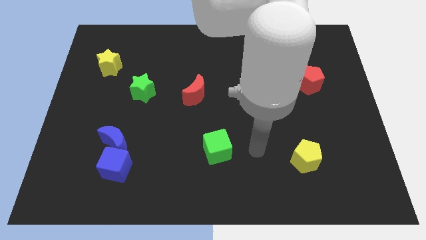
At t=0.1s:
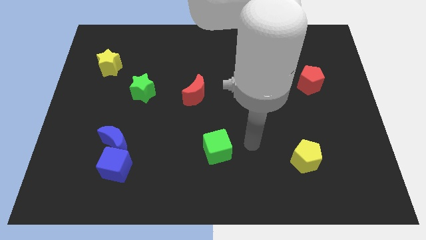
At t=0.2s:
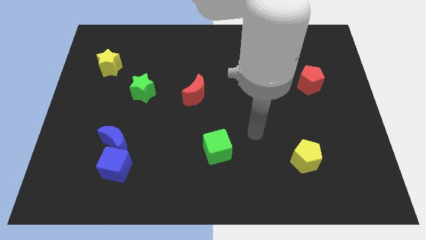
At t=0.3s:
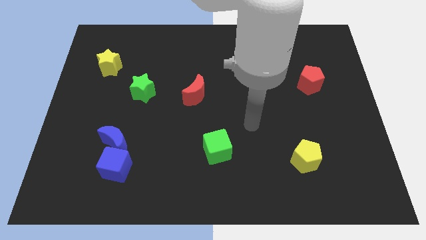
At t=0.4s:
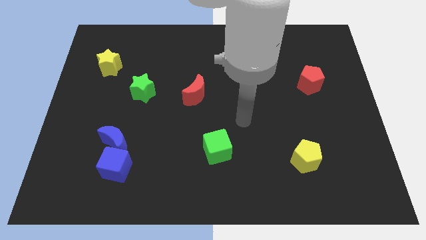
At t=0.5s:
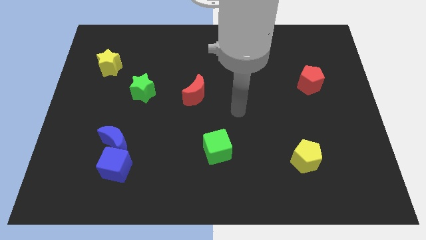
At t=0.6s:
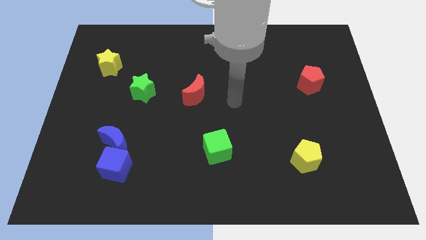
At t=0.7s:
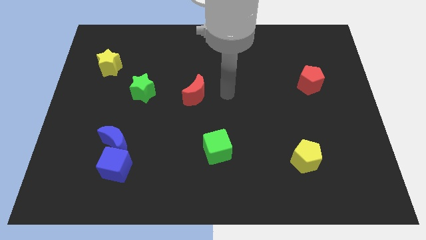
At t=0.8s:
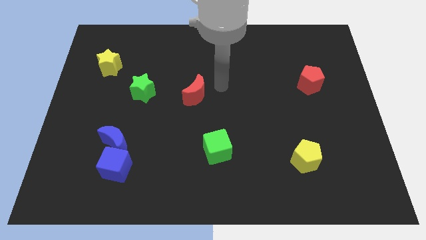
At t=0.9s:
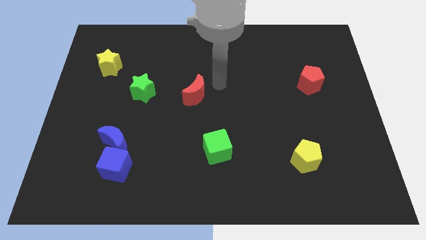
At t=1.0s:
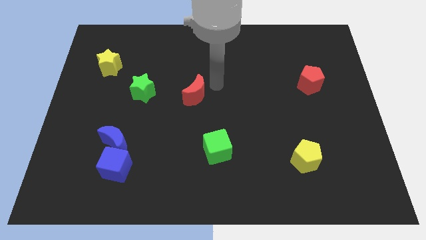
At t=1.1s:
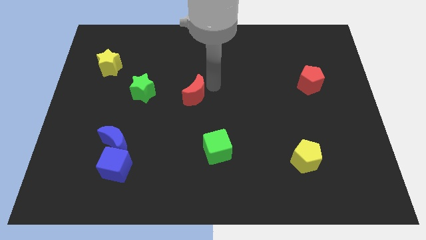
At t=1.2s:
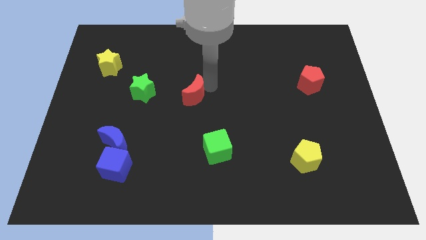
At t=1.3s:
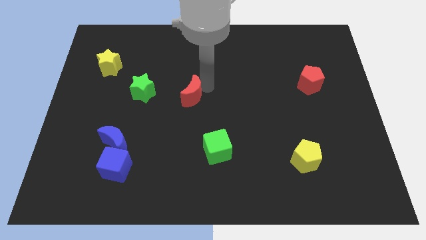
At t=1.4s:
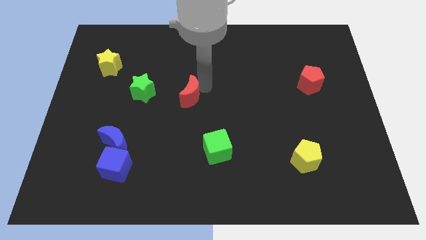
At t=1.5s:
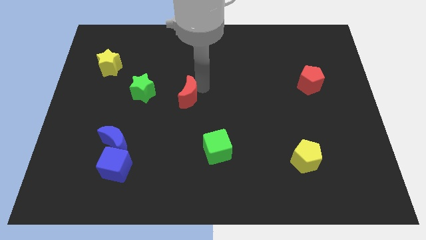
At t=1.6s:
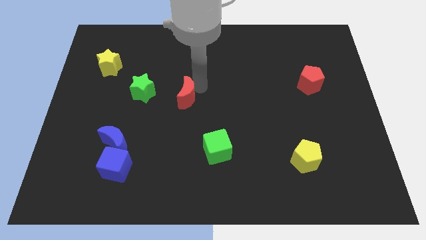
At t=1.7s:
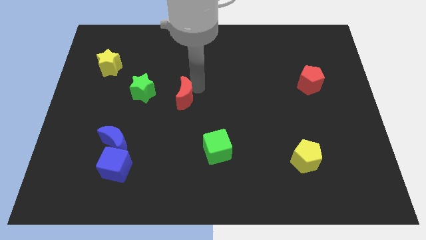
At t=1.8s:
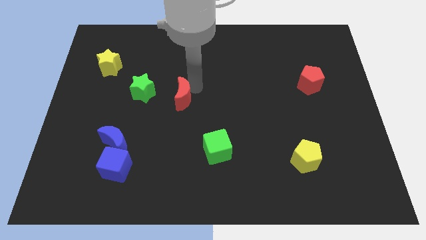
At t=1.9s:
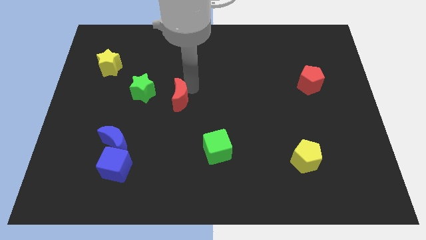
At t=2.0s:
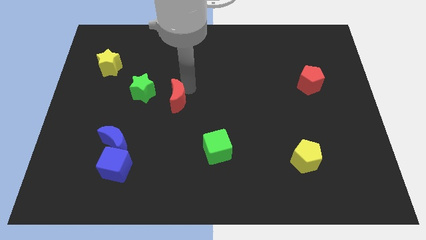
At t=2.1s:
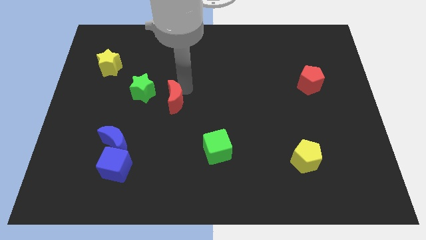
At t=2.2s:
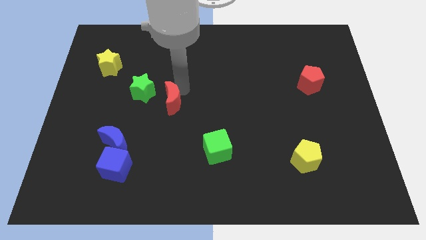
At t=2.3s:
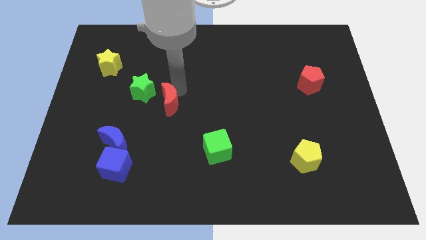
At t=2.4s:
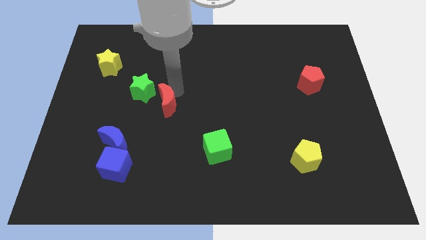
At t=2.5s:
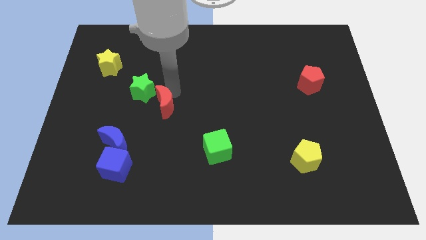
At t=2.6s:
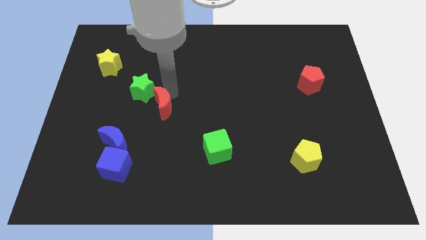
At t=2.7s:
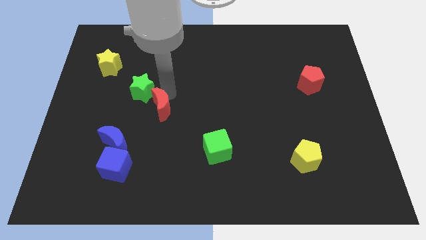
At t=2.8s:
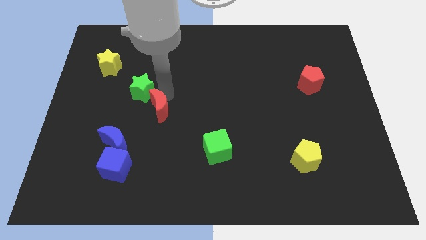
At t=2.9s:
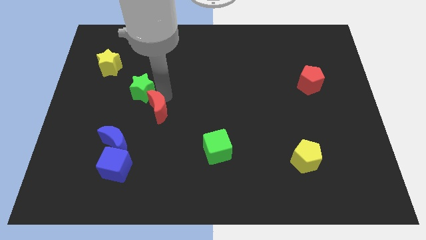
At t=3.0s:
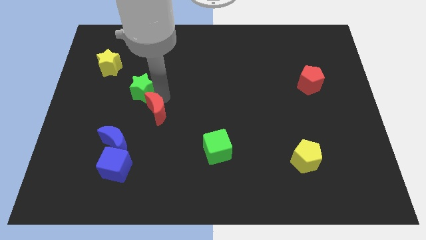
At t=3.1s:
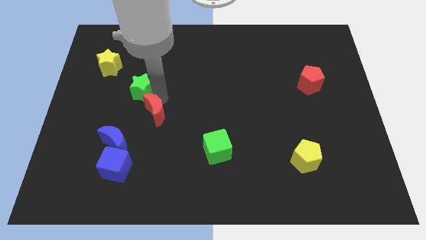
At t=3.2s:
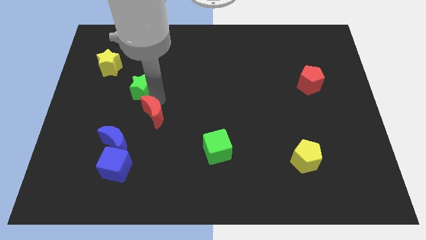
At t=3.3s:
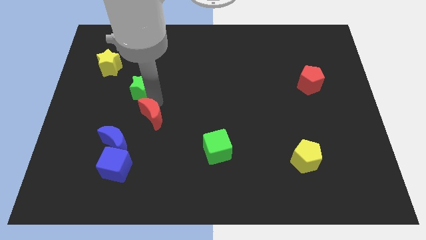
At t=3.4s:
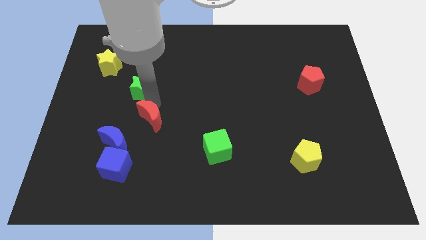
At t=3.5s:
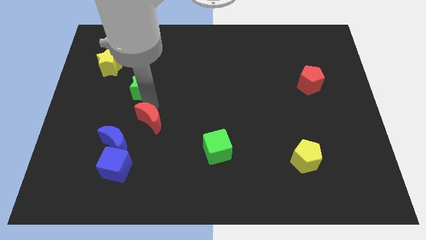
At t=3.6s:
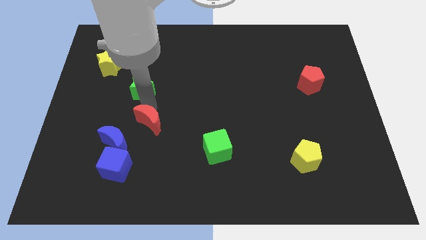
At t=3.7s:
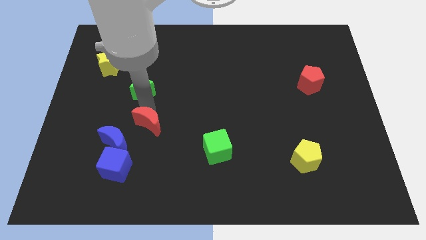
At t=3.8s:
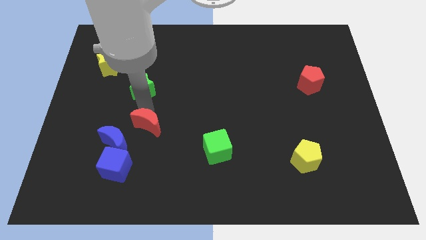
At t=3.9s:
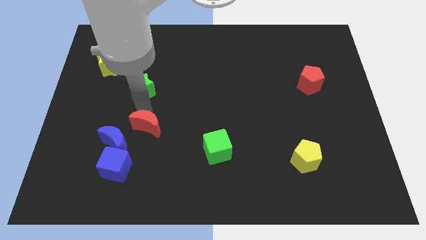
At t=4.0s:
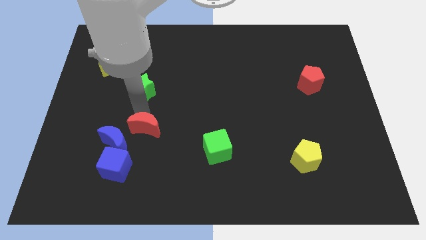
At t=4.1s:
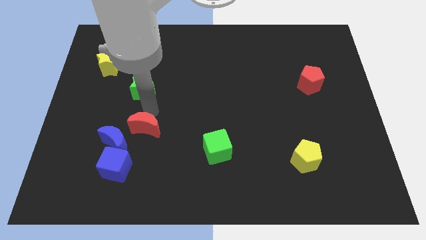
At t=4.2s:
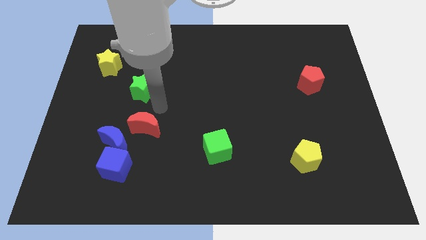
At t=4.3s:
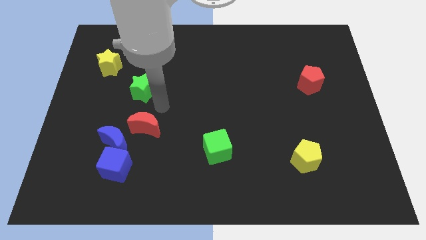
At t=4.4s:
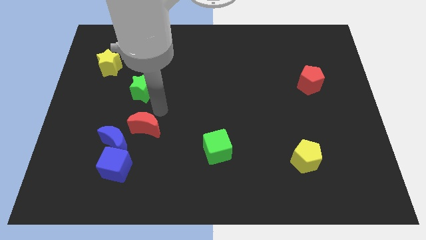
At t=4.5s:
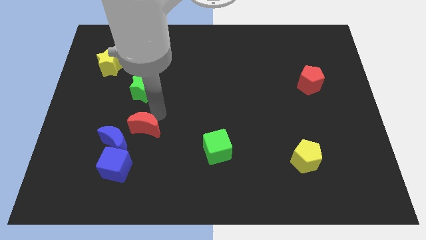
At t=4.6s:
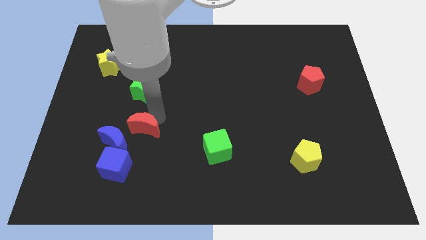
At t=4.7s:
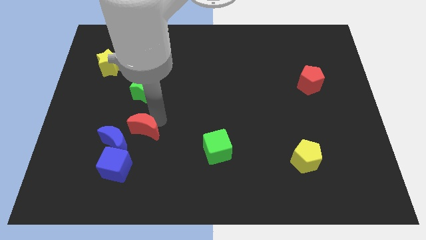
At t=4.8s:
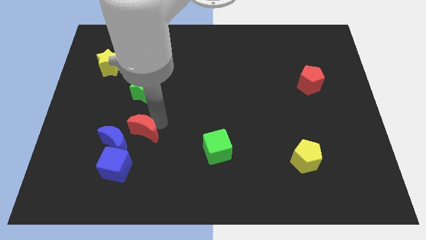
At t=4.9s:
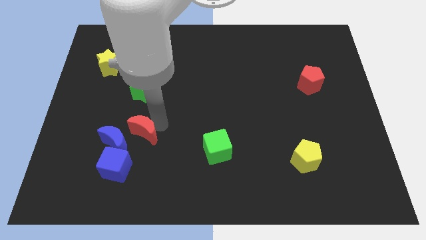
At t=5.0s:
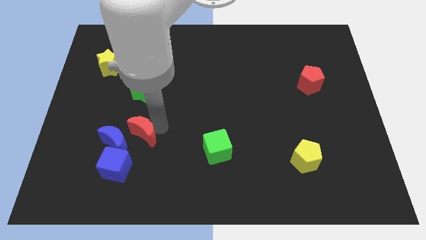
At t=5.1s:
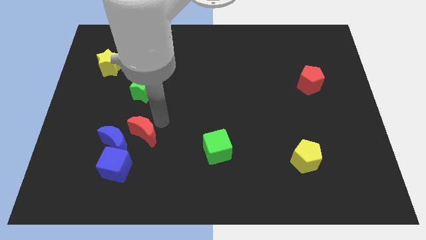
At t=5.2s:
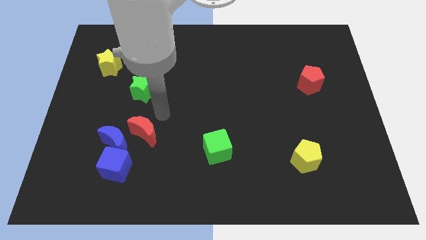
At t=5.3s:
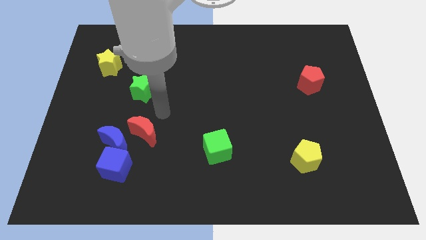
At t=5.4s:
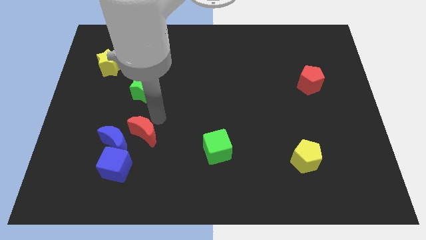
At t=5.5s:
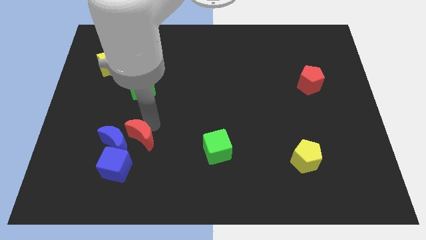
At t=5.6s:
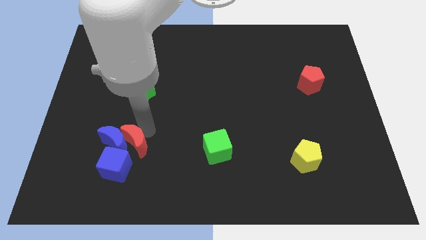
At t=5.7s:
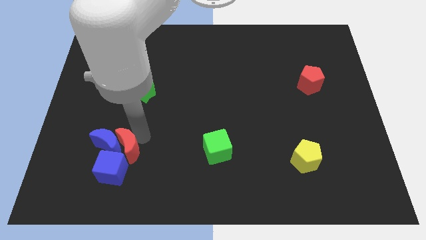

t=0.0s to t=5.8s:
slide the red moon close to the blue cube

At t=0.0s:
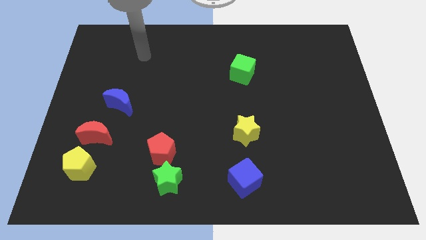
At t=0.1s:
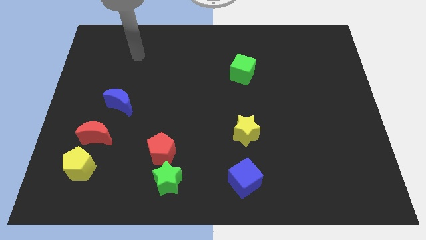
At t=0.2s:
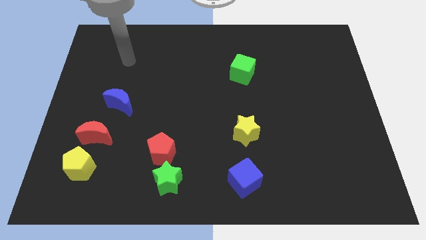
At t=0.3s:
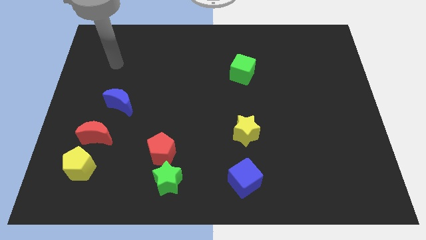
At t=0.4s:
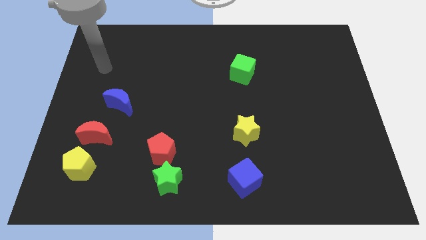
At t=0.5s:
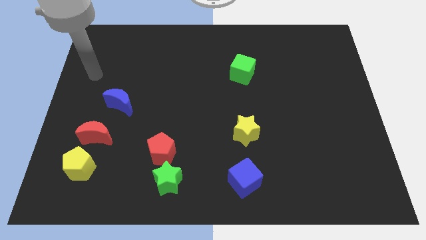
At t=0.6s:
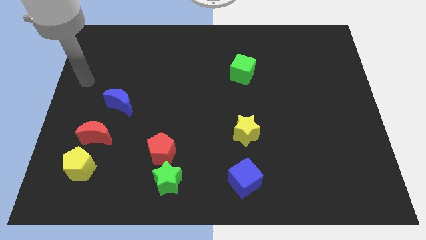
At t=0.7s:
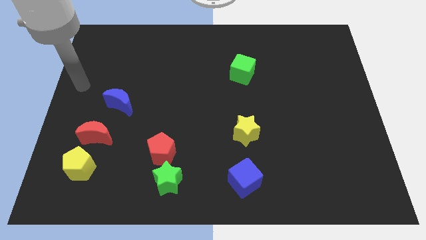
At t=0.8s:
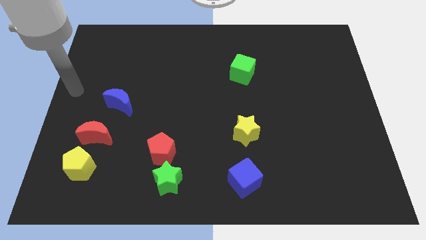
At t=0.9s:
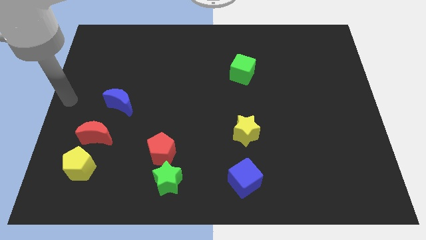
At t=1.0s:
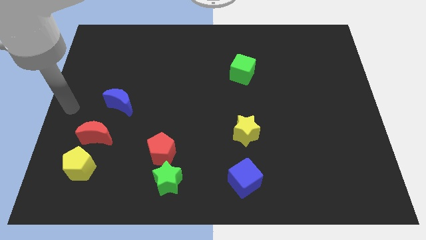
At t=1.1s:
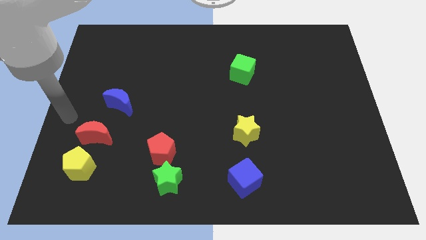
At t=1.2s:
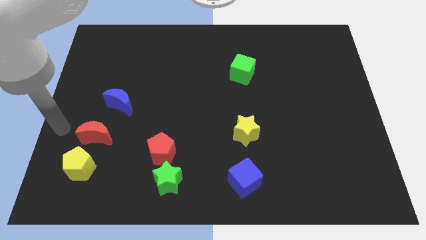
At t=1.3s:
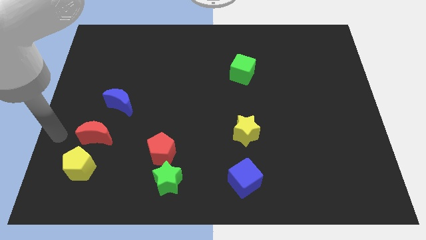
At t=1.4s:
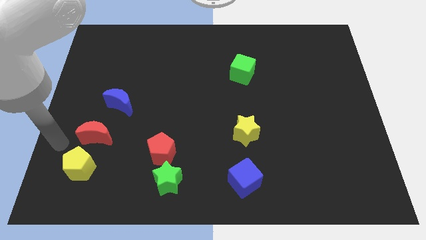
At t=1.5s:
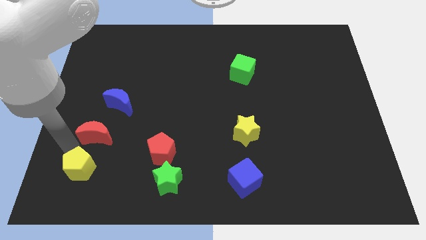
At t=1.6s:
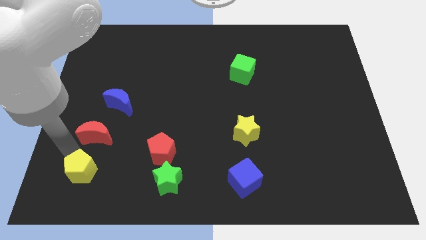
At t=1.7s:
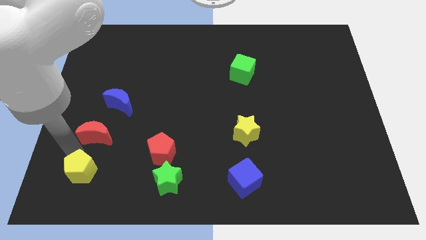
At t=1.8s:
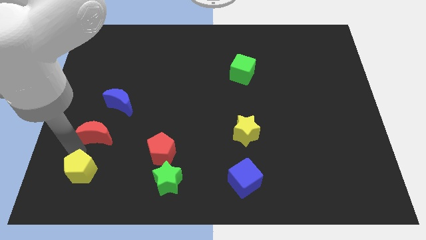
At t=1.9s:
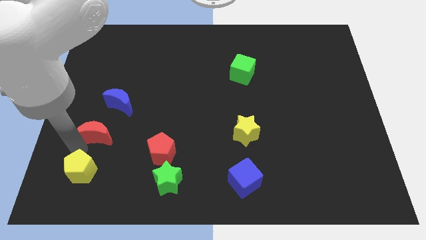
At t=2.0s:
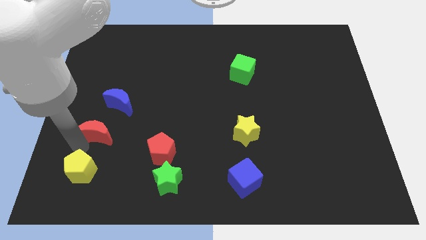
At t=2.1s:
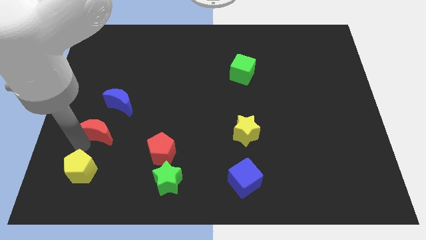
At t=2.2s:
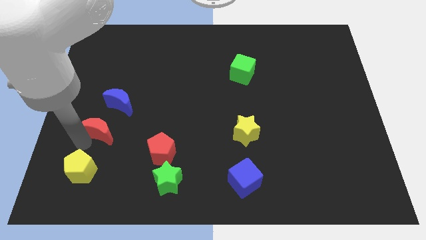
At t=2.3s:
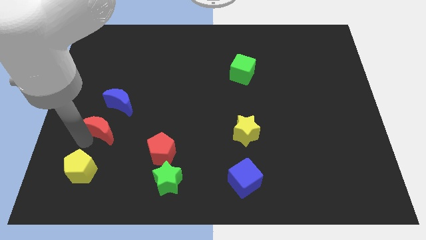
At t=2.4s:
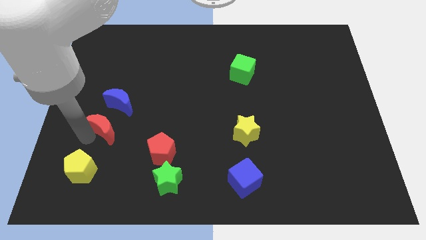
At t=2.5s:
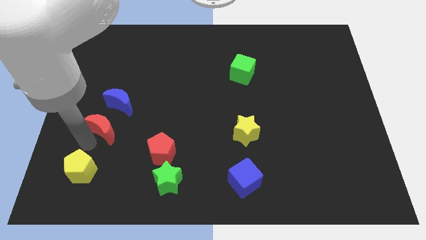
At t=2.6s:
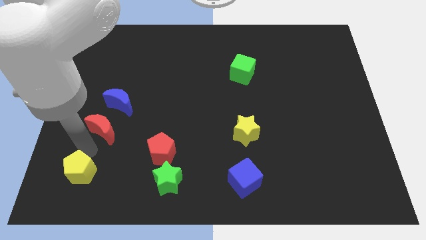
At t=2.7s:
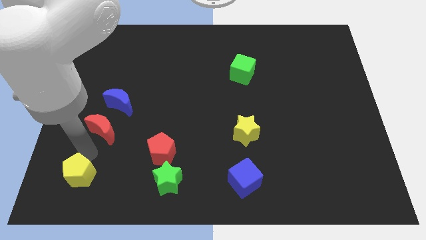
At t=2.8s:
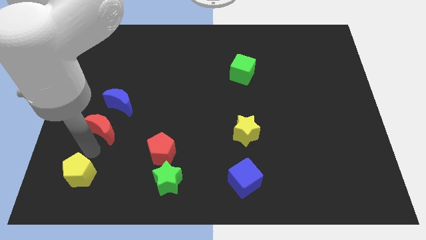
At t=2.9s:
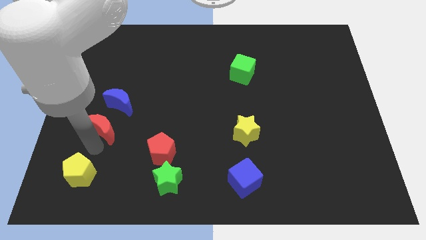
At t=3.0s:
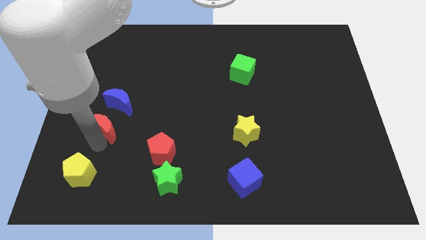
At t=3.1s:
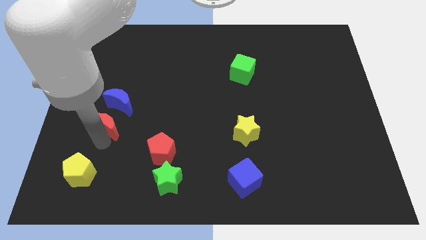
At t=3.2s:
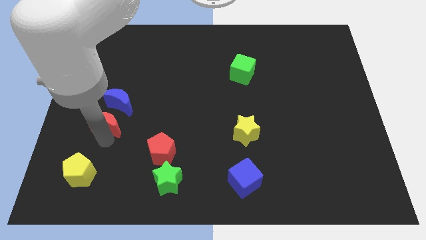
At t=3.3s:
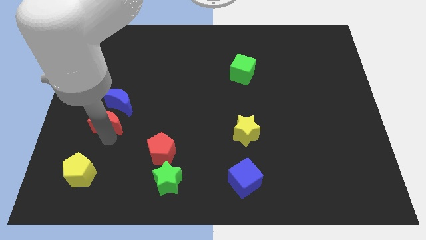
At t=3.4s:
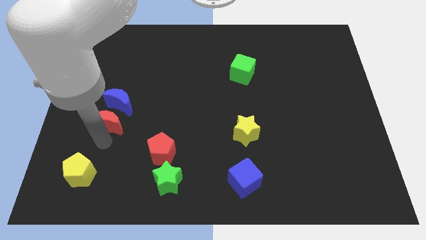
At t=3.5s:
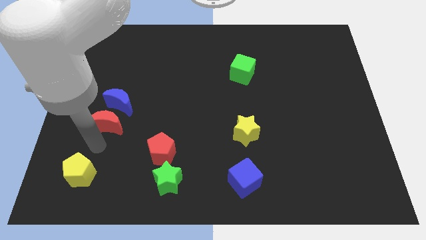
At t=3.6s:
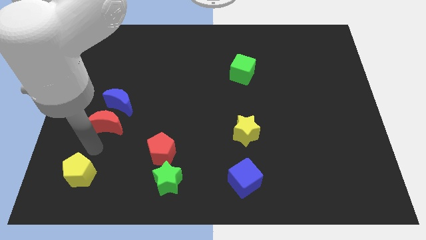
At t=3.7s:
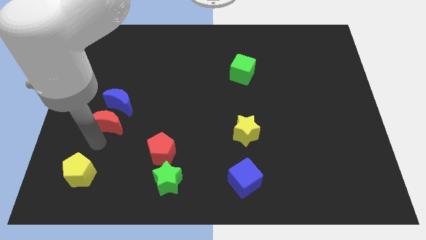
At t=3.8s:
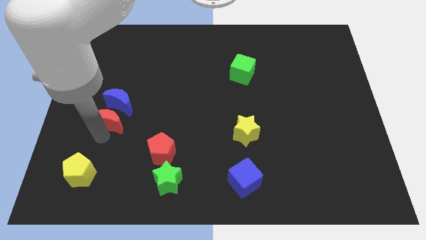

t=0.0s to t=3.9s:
move the red moon next to the blue moon
